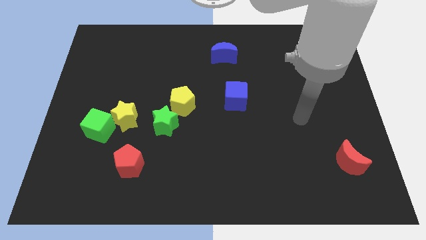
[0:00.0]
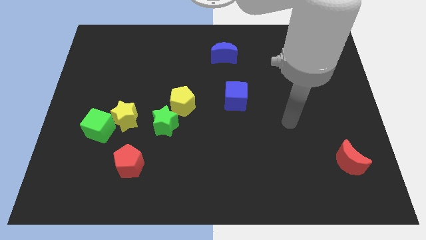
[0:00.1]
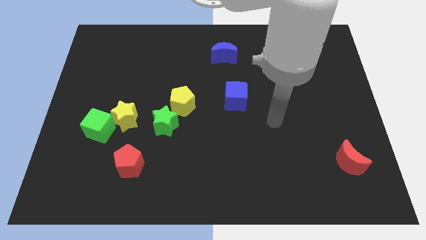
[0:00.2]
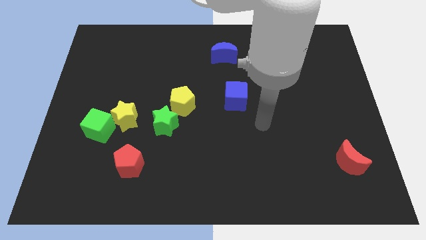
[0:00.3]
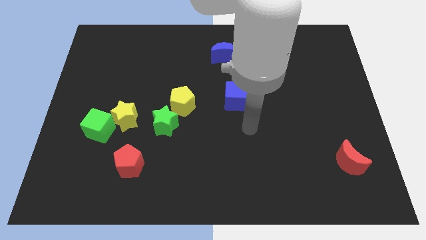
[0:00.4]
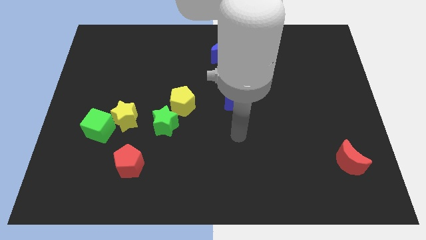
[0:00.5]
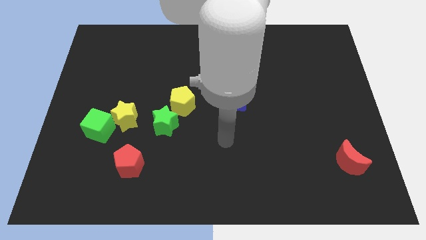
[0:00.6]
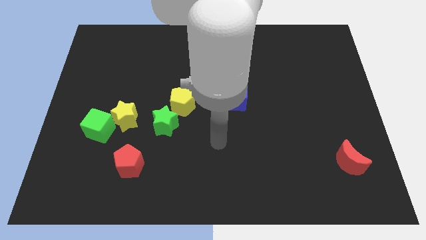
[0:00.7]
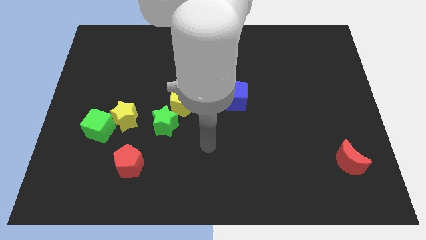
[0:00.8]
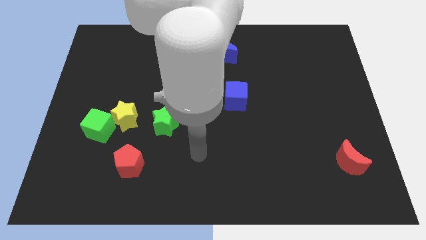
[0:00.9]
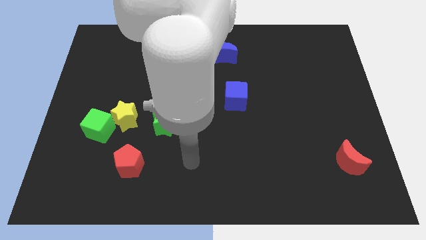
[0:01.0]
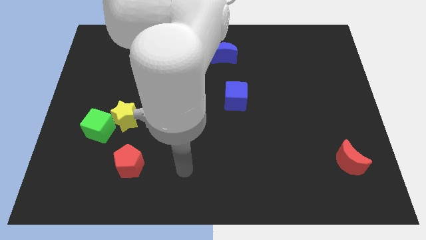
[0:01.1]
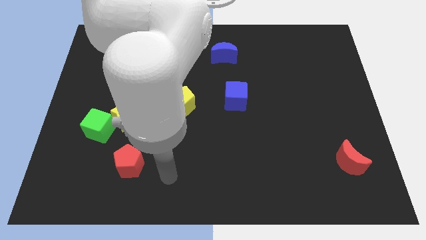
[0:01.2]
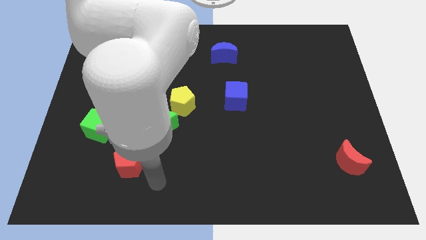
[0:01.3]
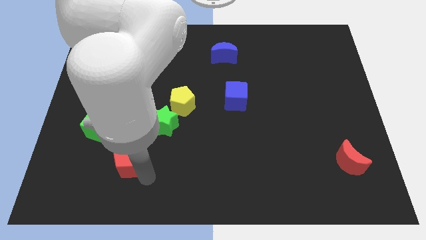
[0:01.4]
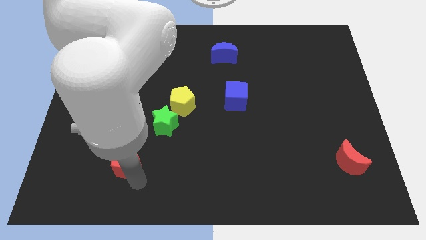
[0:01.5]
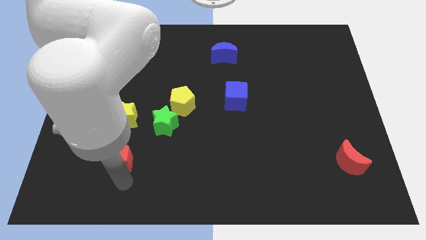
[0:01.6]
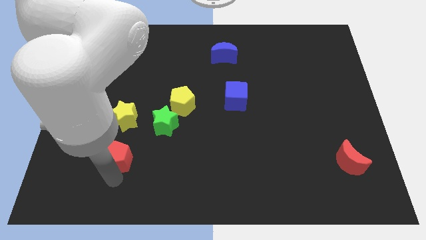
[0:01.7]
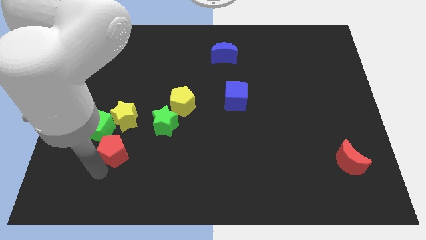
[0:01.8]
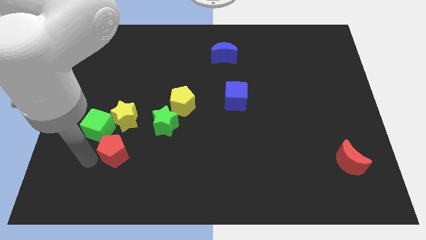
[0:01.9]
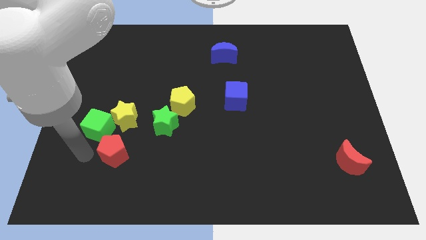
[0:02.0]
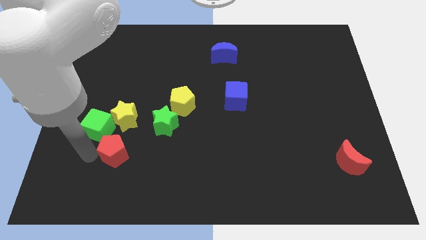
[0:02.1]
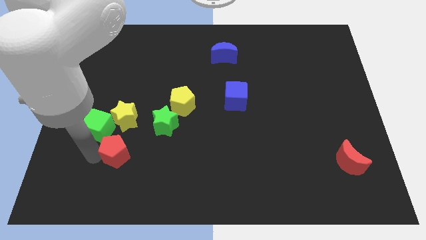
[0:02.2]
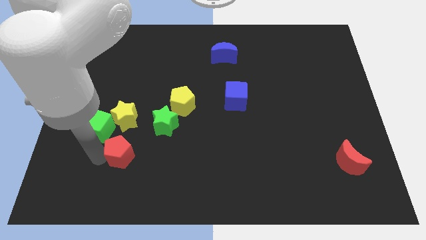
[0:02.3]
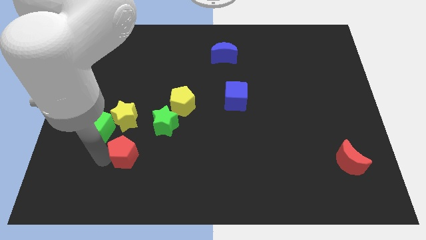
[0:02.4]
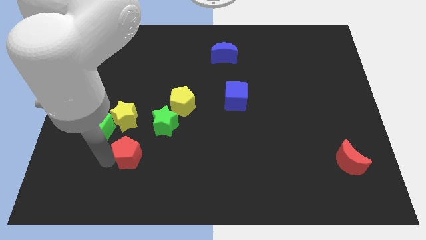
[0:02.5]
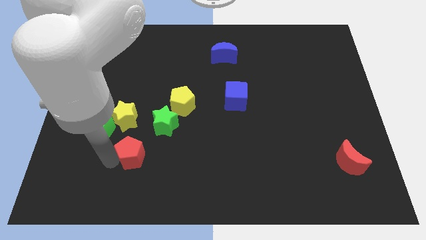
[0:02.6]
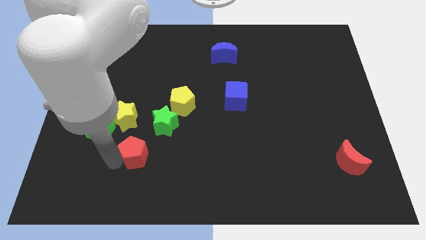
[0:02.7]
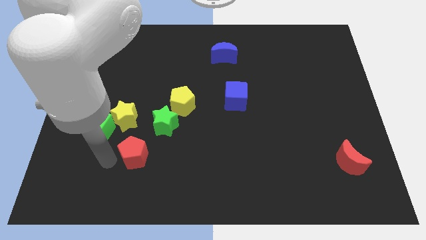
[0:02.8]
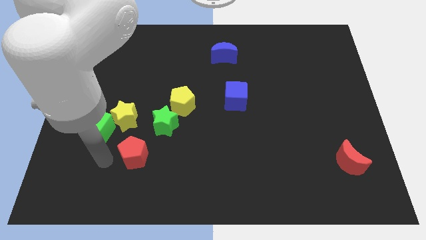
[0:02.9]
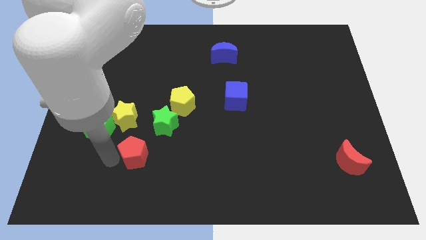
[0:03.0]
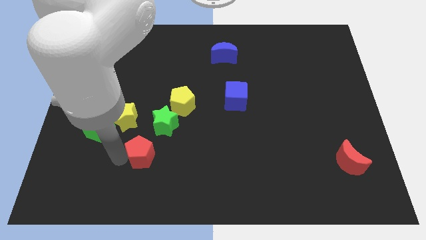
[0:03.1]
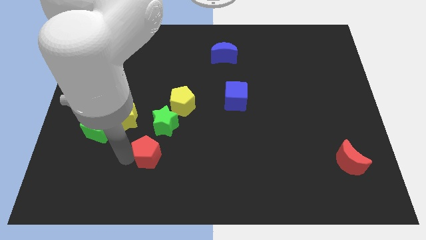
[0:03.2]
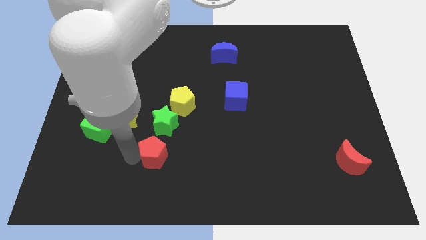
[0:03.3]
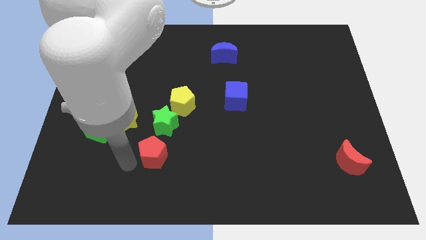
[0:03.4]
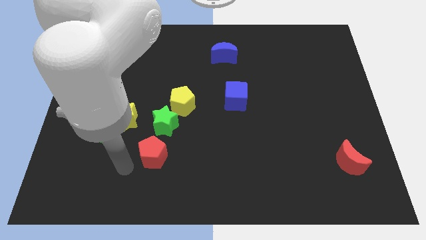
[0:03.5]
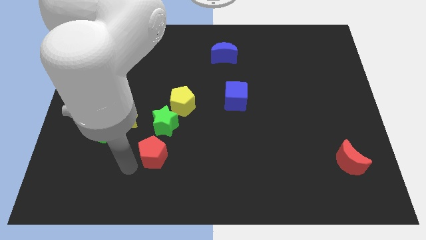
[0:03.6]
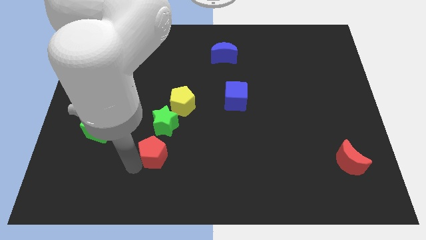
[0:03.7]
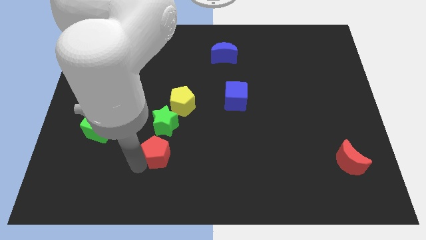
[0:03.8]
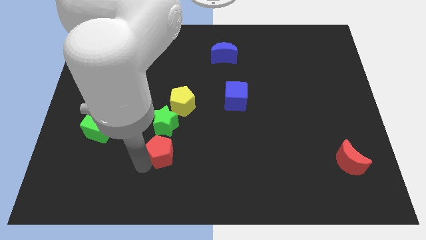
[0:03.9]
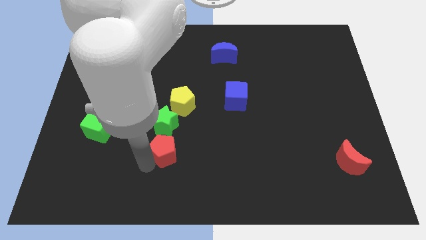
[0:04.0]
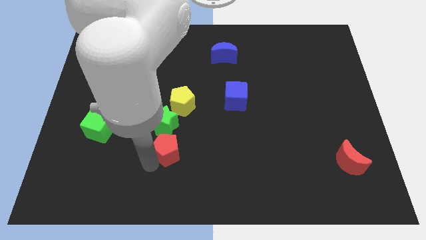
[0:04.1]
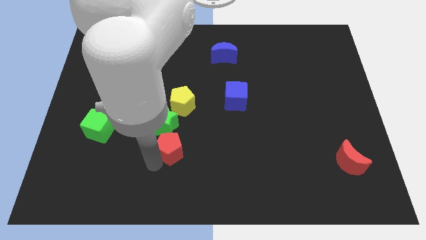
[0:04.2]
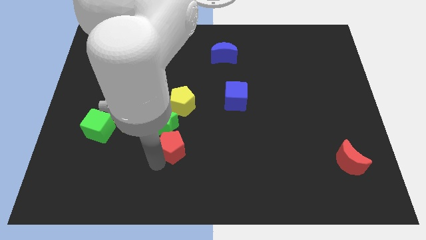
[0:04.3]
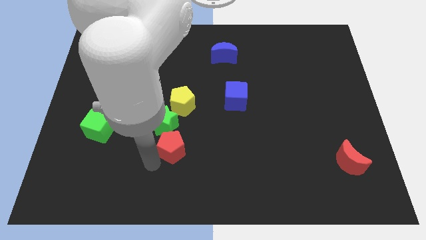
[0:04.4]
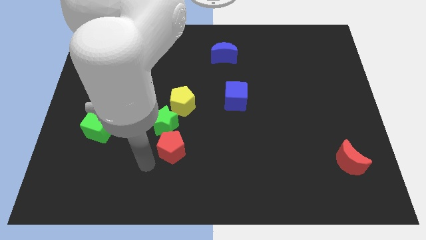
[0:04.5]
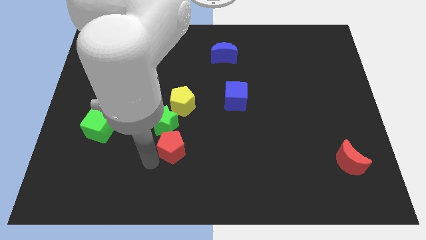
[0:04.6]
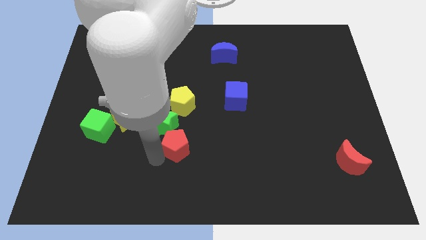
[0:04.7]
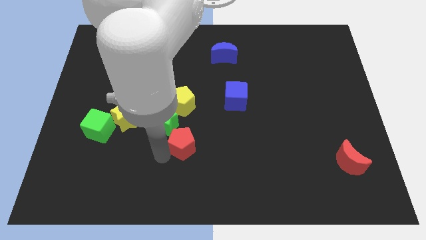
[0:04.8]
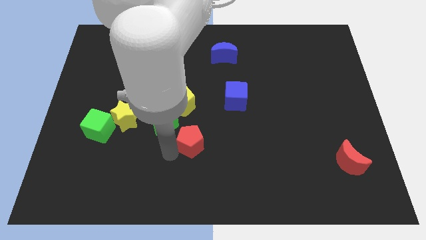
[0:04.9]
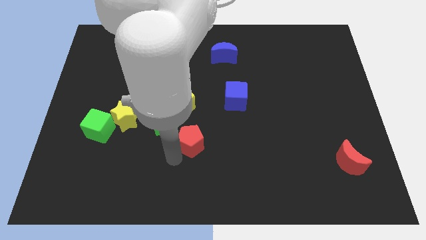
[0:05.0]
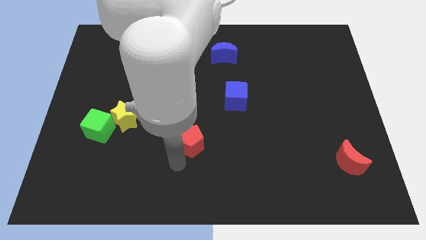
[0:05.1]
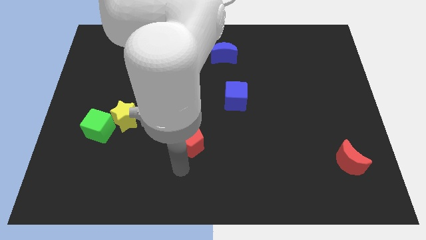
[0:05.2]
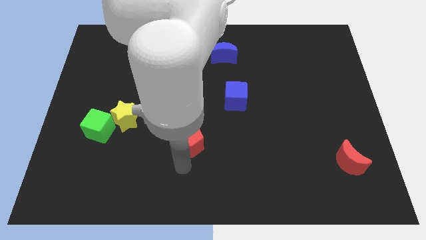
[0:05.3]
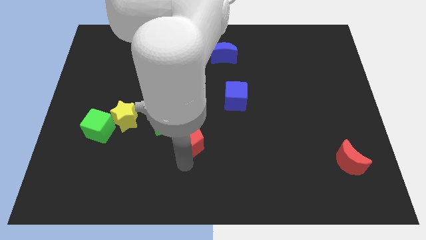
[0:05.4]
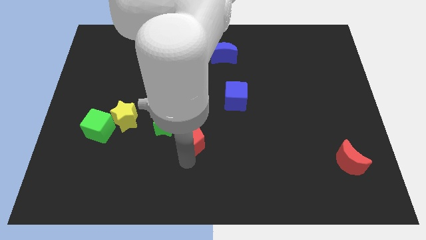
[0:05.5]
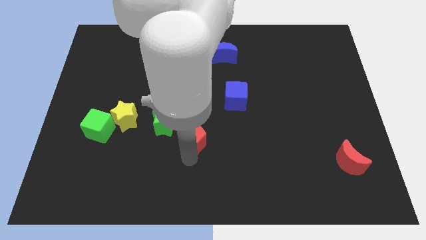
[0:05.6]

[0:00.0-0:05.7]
put the red pentagon to the middle

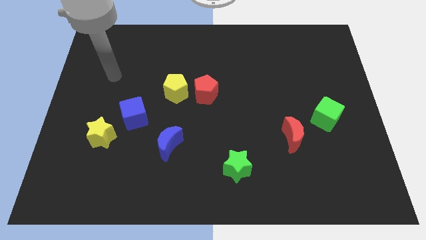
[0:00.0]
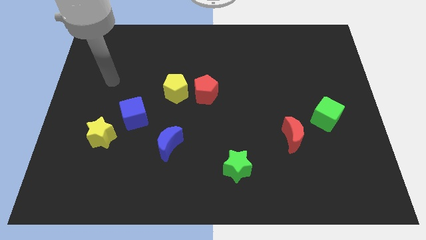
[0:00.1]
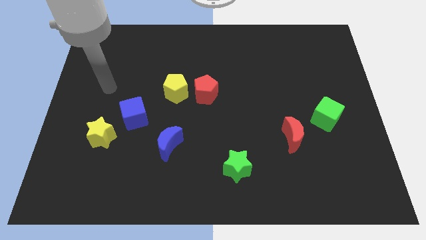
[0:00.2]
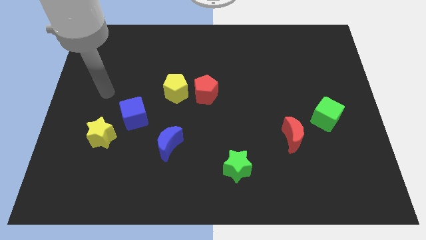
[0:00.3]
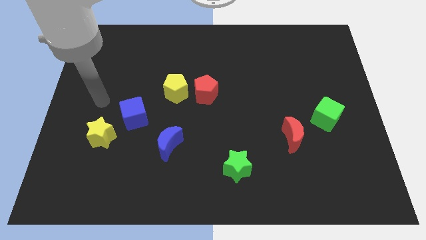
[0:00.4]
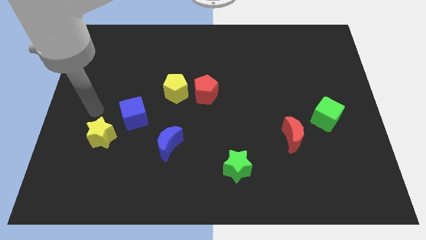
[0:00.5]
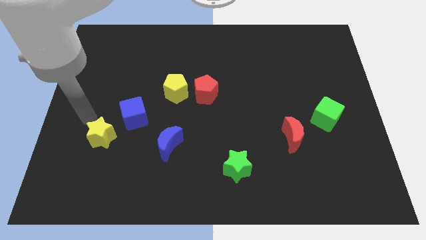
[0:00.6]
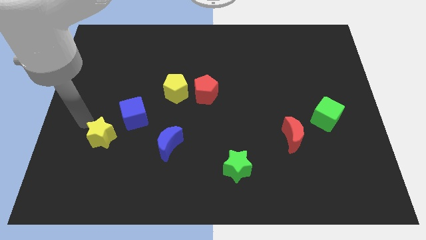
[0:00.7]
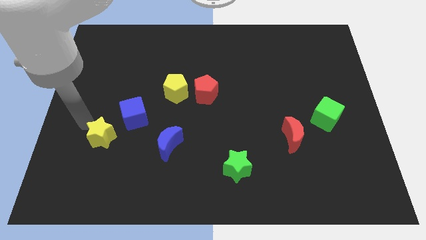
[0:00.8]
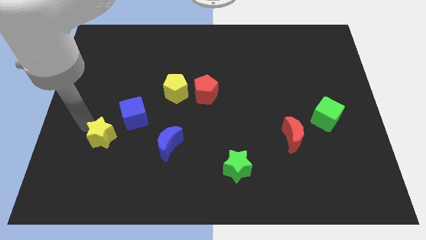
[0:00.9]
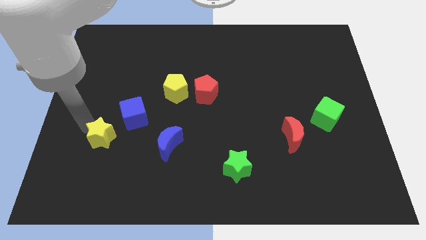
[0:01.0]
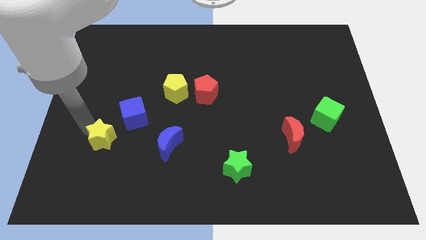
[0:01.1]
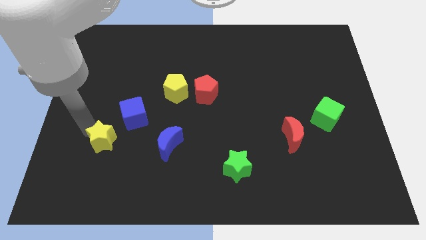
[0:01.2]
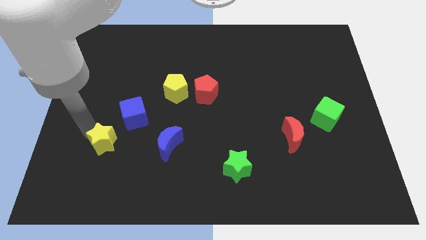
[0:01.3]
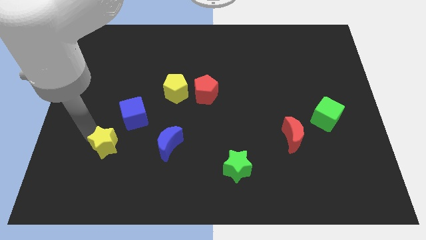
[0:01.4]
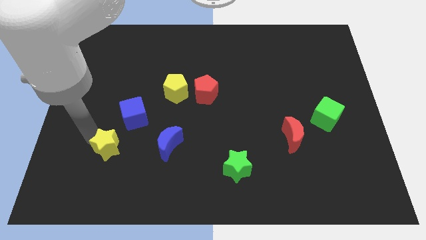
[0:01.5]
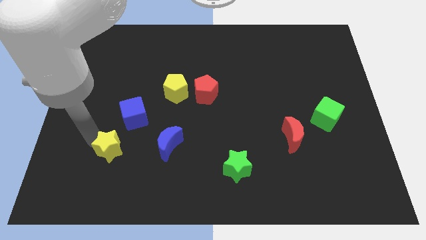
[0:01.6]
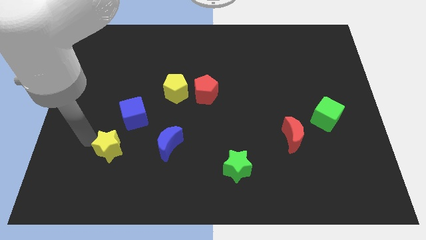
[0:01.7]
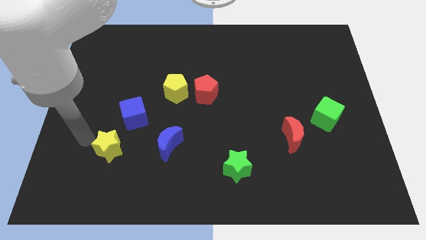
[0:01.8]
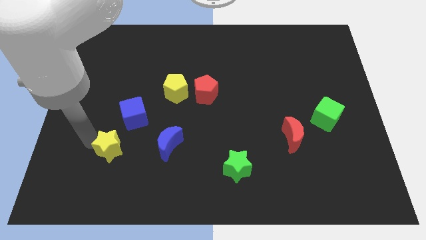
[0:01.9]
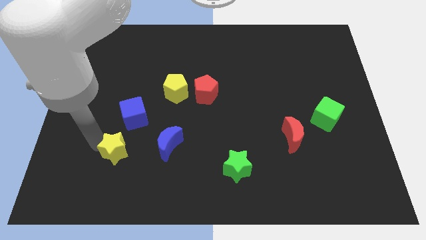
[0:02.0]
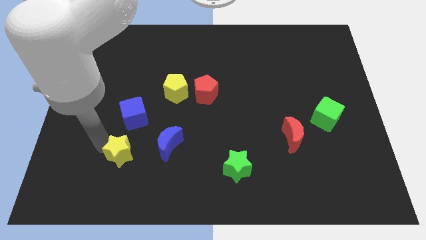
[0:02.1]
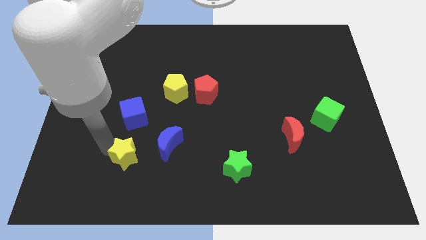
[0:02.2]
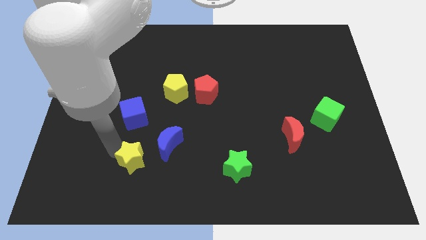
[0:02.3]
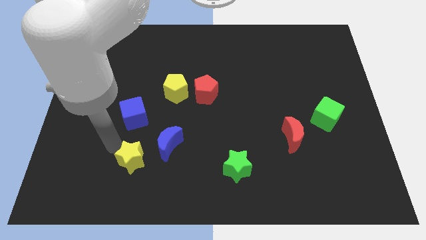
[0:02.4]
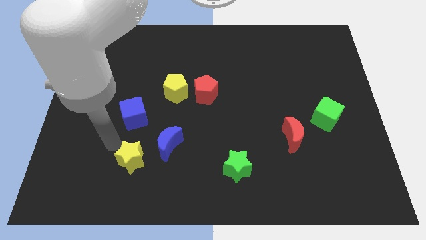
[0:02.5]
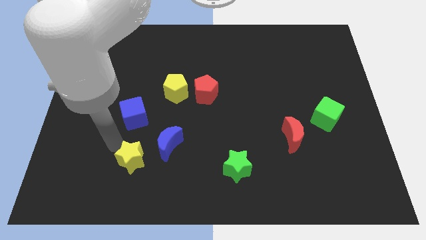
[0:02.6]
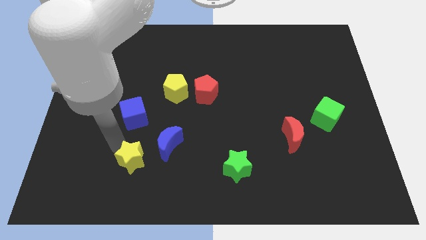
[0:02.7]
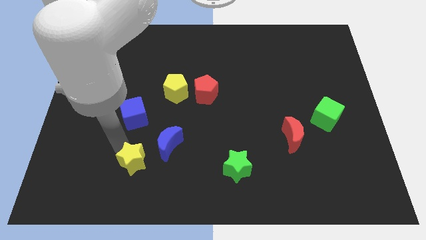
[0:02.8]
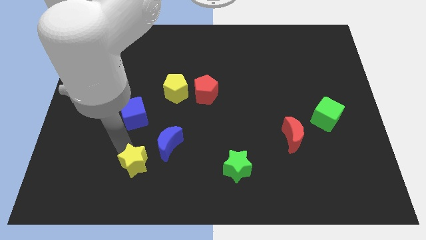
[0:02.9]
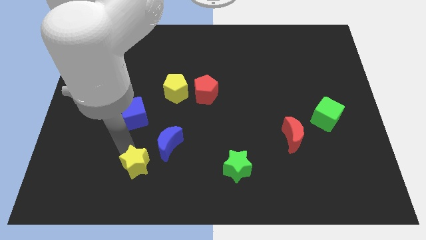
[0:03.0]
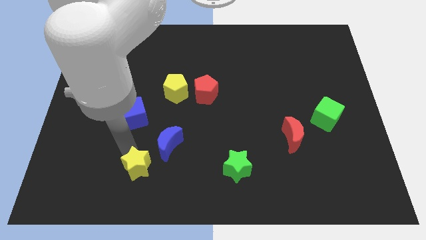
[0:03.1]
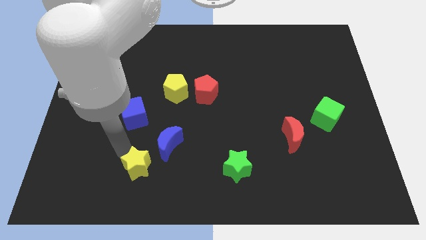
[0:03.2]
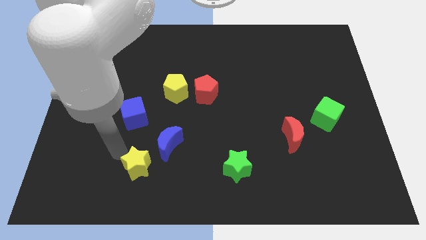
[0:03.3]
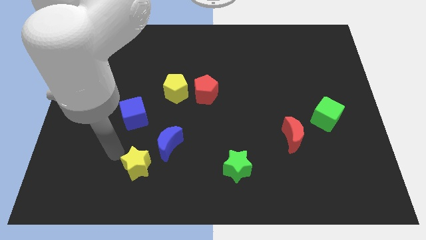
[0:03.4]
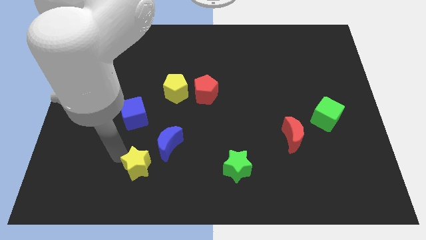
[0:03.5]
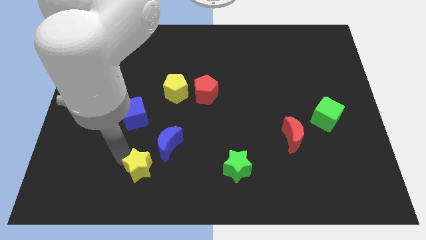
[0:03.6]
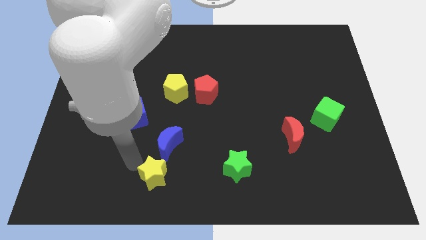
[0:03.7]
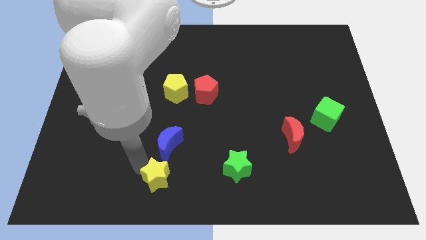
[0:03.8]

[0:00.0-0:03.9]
push the yellow star to the bottom
